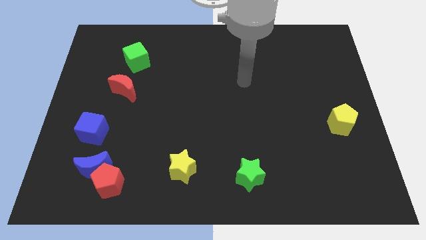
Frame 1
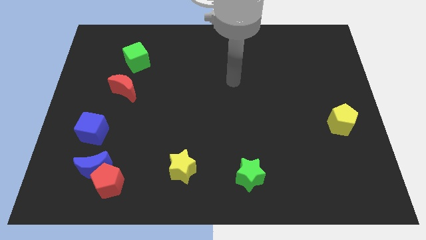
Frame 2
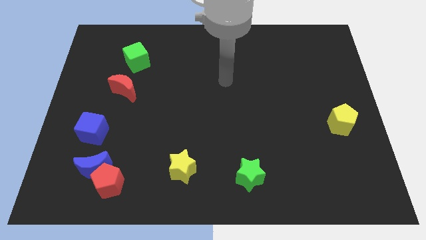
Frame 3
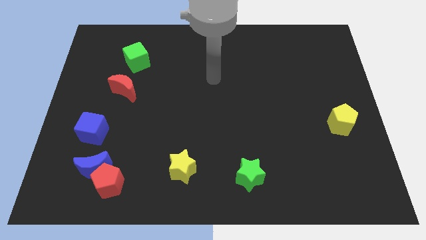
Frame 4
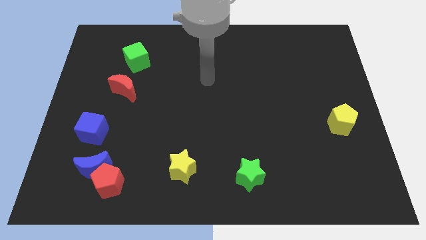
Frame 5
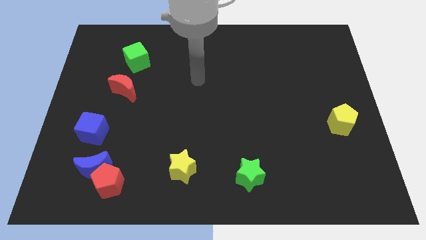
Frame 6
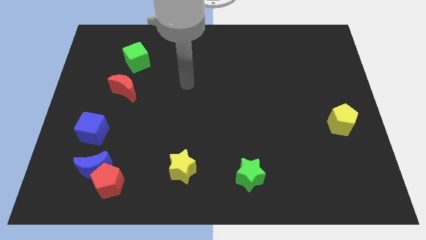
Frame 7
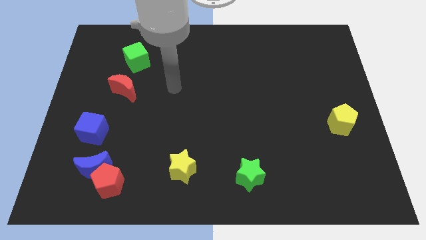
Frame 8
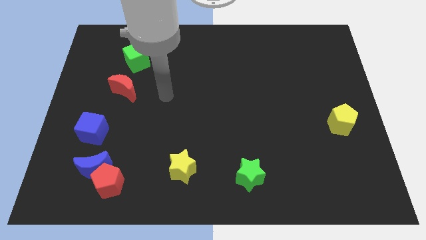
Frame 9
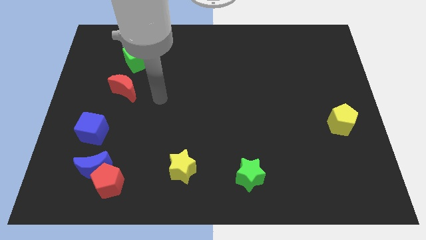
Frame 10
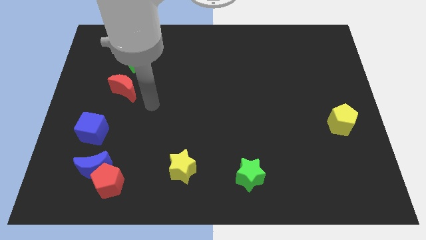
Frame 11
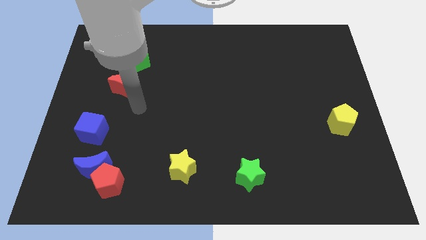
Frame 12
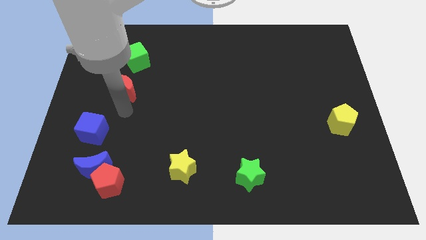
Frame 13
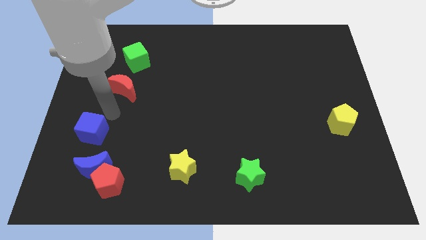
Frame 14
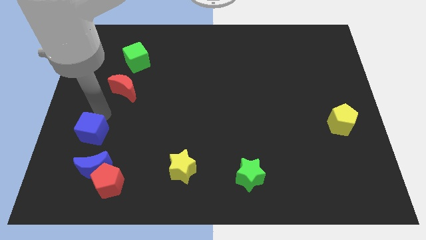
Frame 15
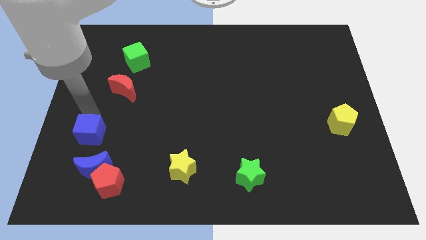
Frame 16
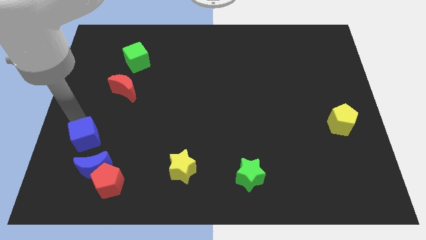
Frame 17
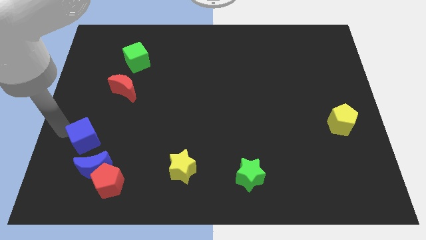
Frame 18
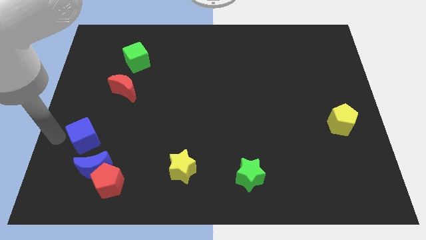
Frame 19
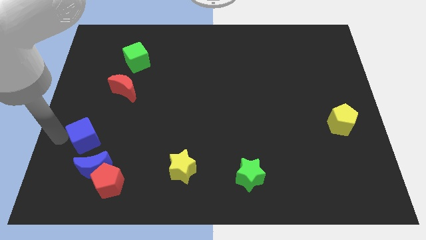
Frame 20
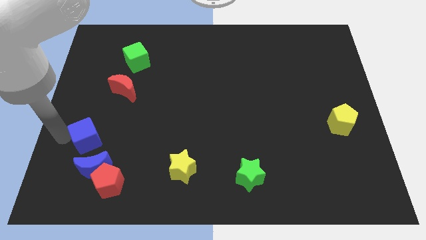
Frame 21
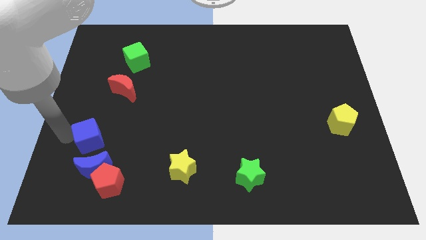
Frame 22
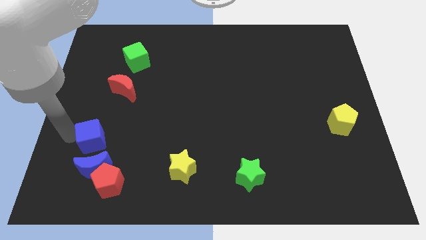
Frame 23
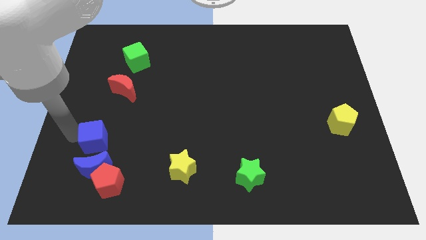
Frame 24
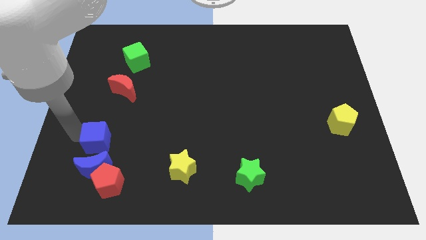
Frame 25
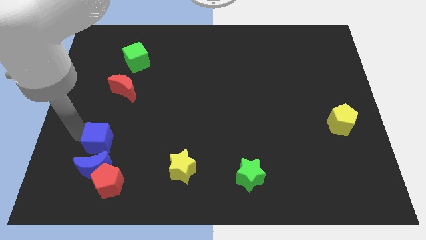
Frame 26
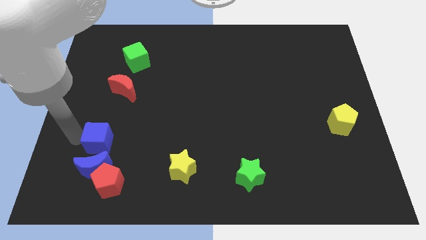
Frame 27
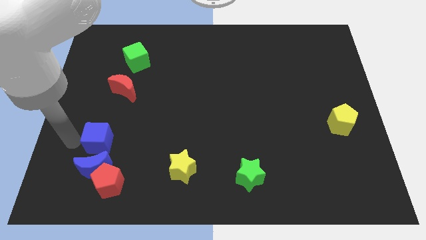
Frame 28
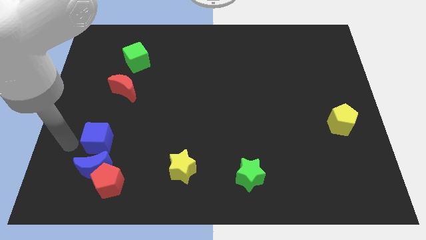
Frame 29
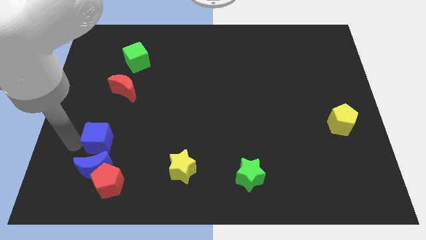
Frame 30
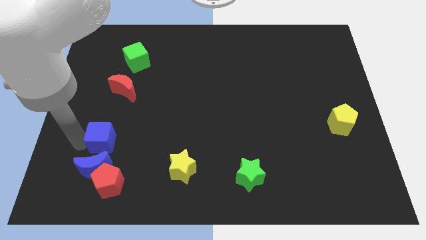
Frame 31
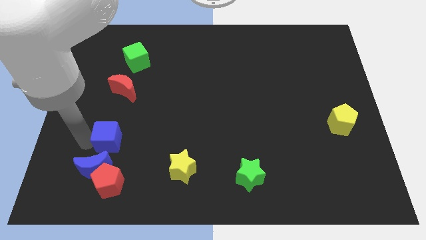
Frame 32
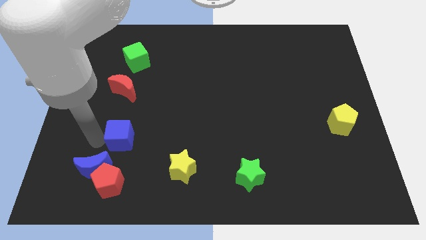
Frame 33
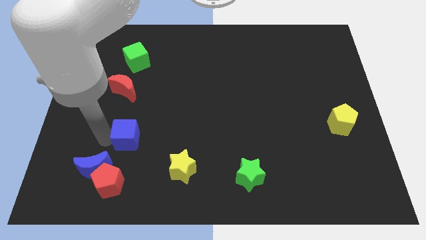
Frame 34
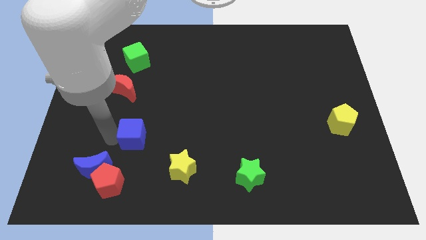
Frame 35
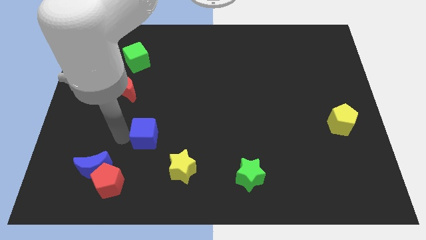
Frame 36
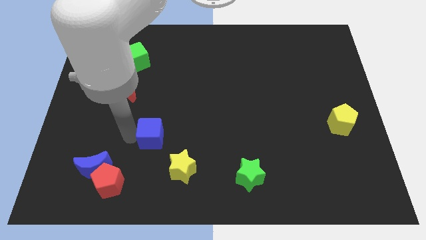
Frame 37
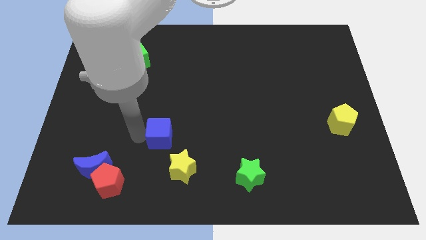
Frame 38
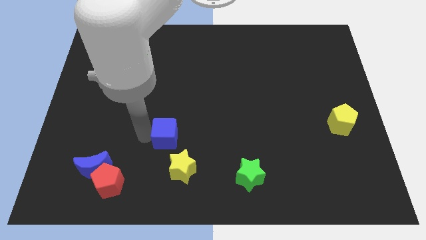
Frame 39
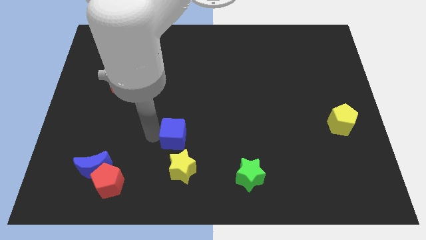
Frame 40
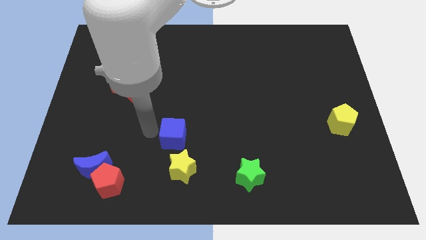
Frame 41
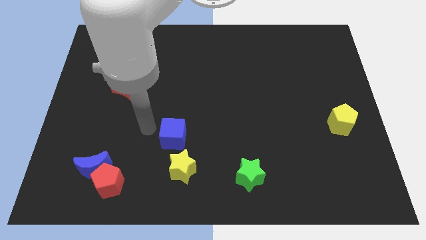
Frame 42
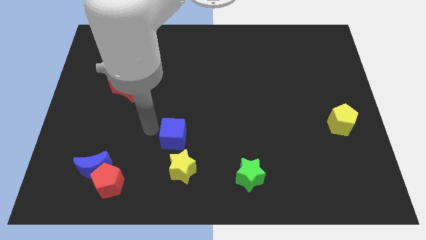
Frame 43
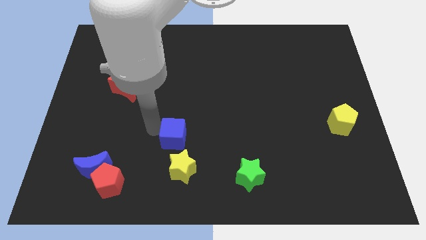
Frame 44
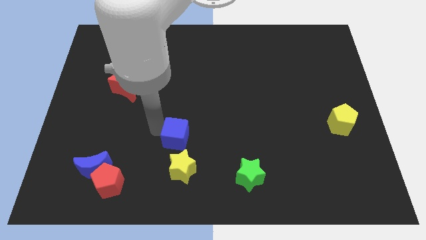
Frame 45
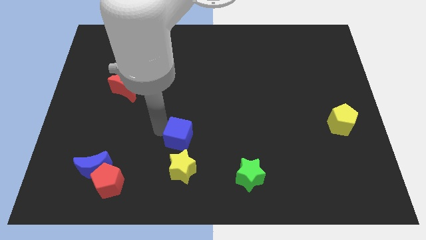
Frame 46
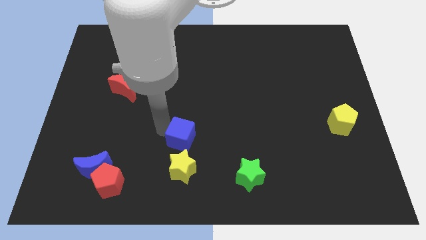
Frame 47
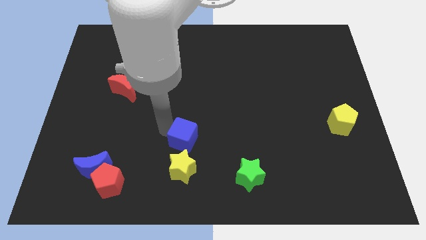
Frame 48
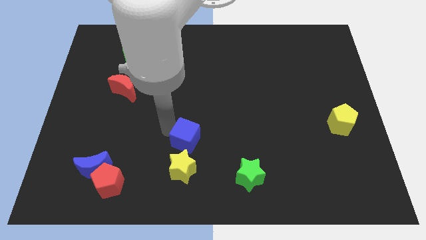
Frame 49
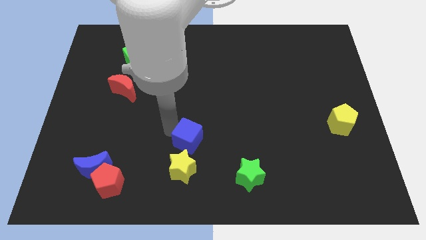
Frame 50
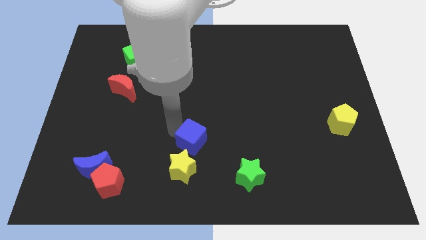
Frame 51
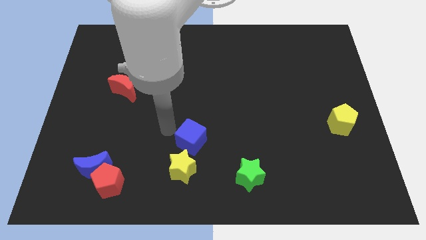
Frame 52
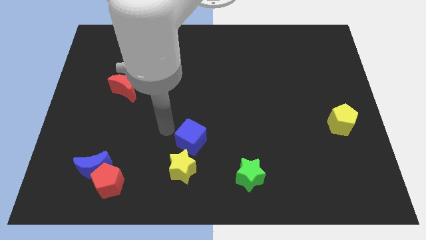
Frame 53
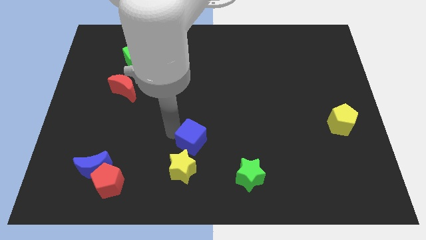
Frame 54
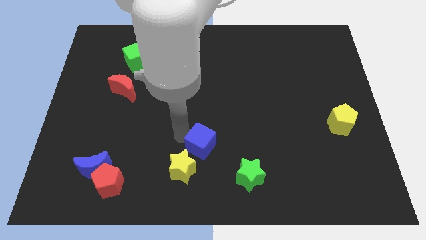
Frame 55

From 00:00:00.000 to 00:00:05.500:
move the blue cube diagonally up and to the left of the green star
